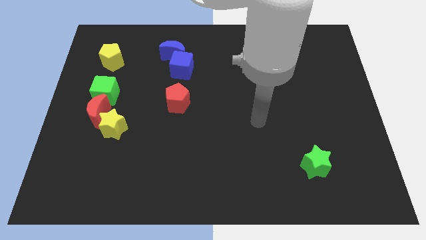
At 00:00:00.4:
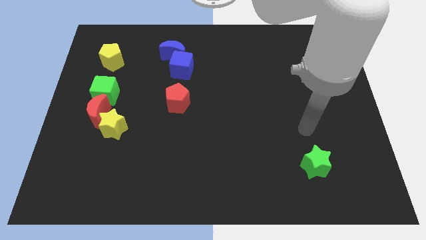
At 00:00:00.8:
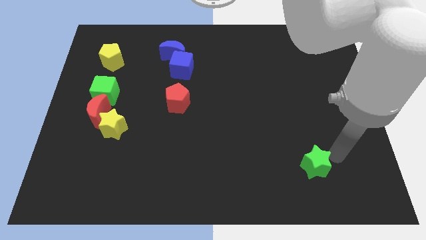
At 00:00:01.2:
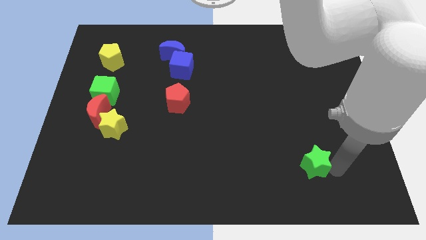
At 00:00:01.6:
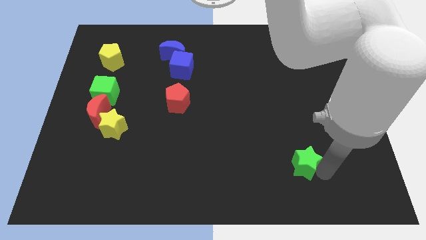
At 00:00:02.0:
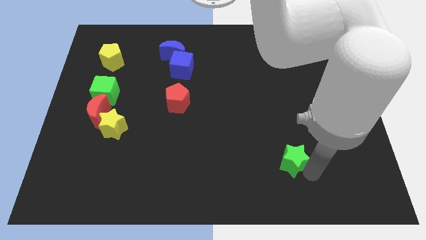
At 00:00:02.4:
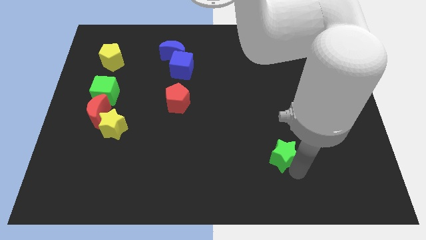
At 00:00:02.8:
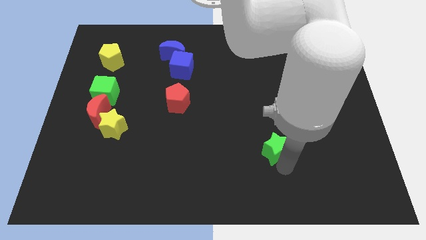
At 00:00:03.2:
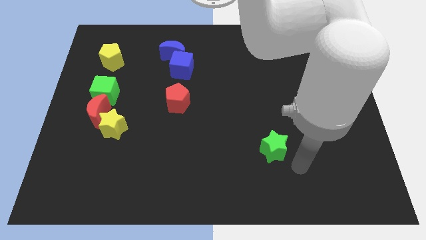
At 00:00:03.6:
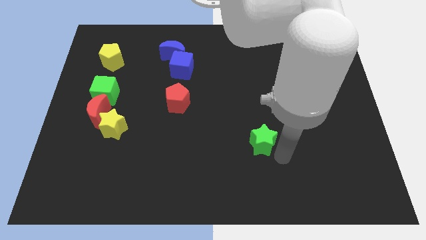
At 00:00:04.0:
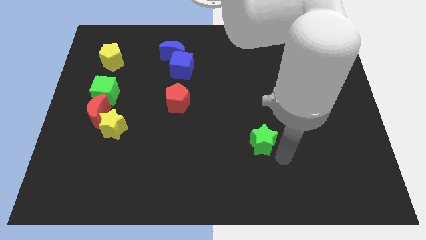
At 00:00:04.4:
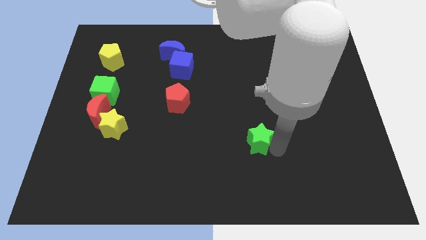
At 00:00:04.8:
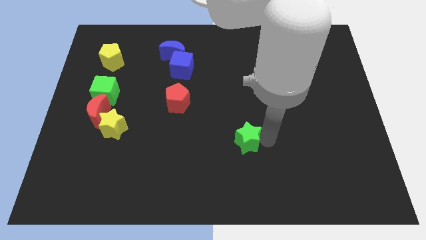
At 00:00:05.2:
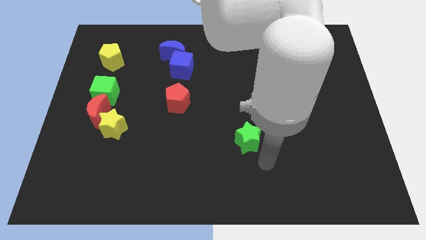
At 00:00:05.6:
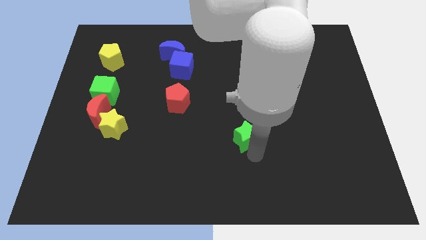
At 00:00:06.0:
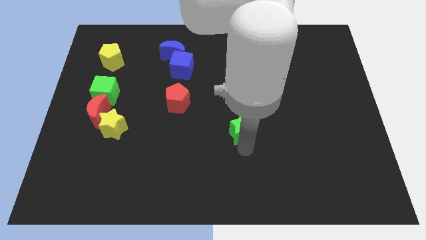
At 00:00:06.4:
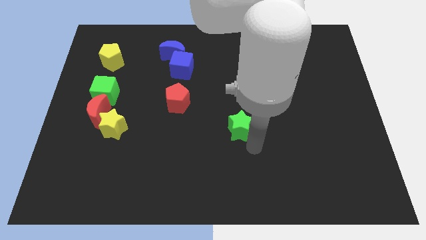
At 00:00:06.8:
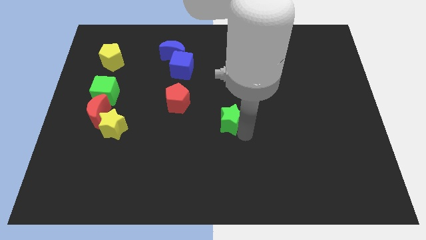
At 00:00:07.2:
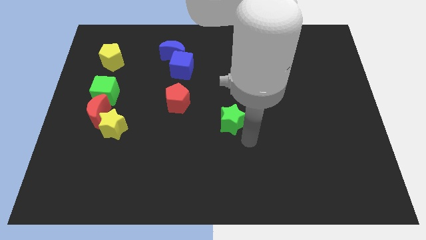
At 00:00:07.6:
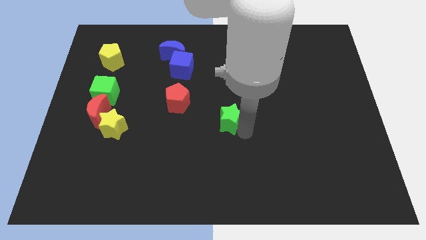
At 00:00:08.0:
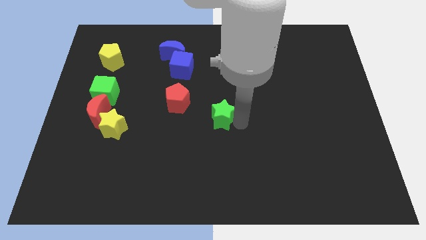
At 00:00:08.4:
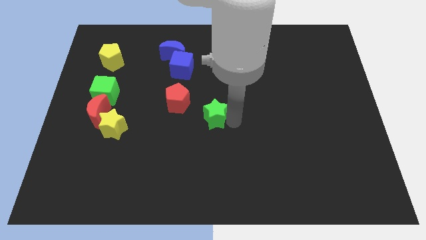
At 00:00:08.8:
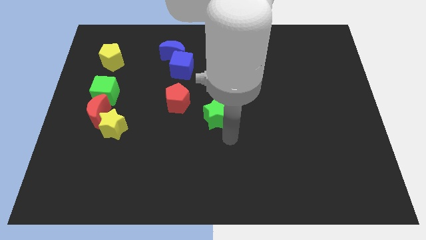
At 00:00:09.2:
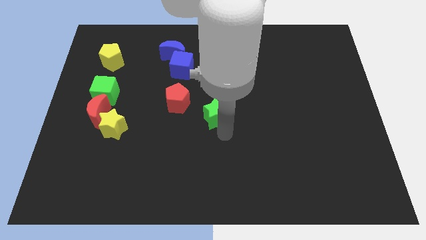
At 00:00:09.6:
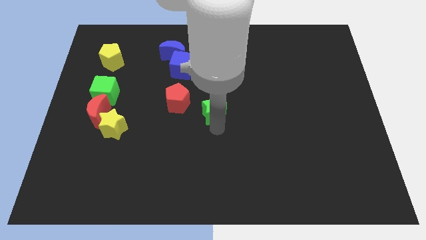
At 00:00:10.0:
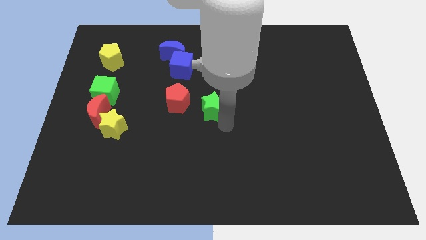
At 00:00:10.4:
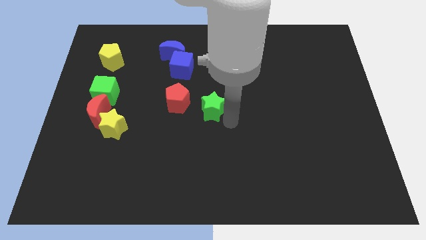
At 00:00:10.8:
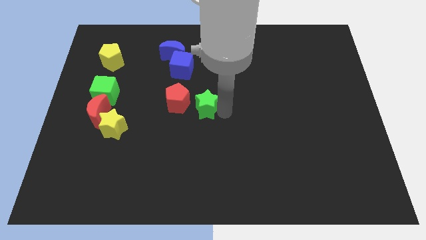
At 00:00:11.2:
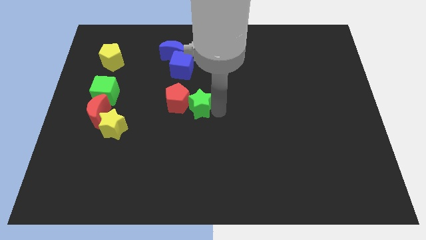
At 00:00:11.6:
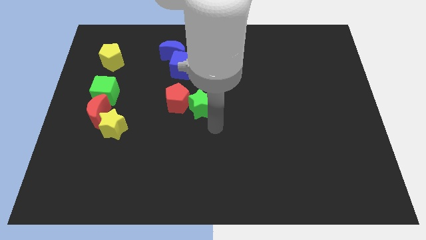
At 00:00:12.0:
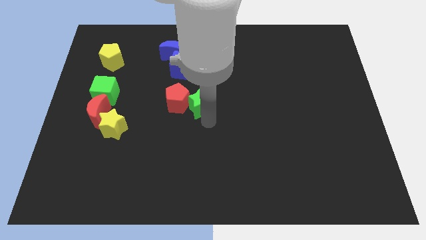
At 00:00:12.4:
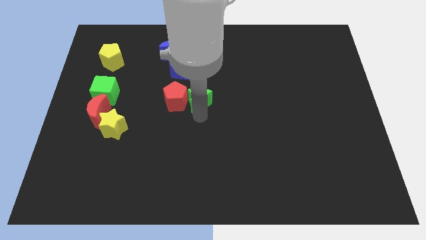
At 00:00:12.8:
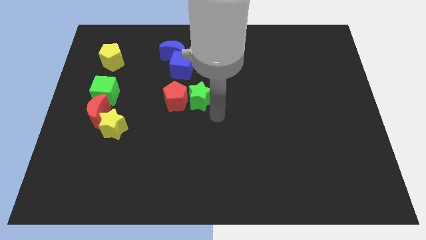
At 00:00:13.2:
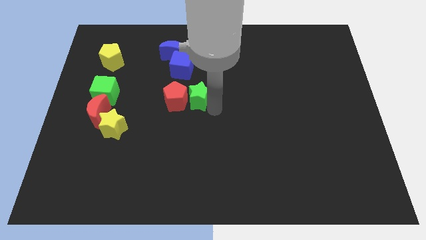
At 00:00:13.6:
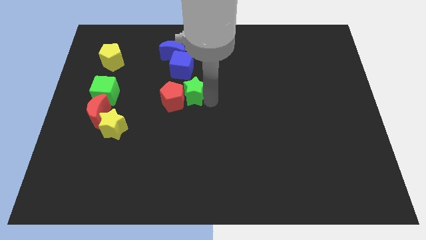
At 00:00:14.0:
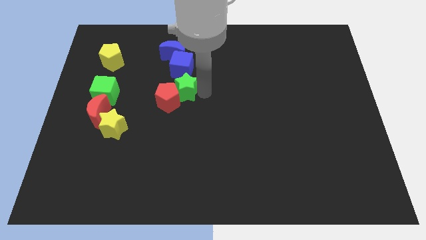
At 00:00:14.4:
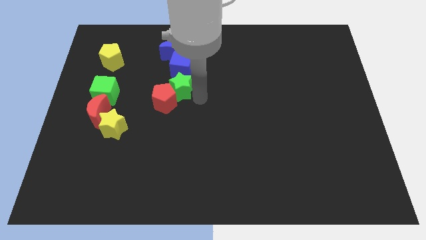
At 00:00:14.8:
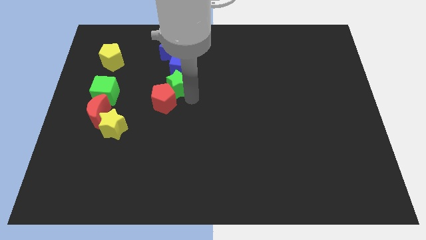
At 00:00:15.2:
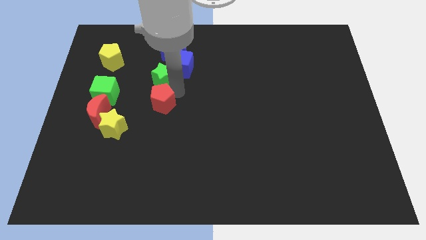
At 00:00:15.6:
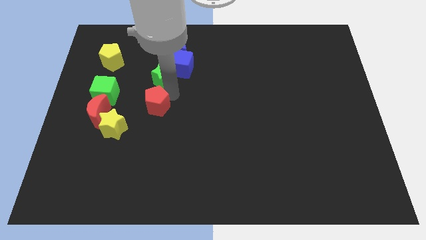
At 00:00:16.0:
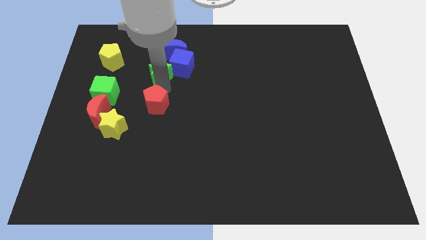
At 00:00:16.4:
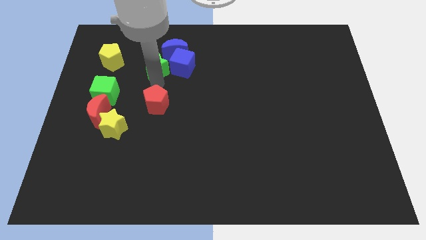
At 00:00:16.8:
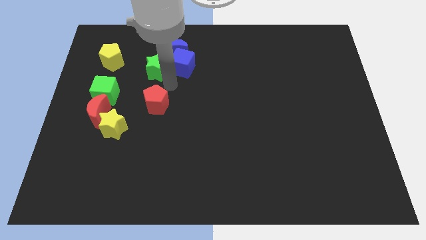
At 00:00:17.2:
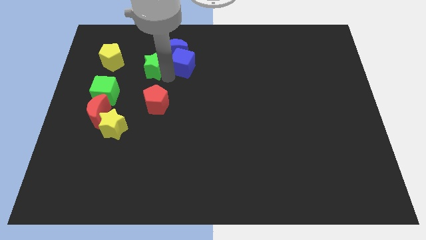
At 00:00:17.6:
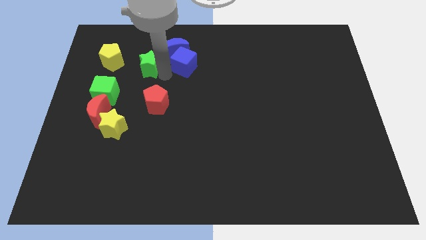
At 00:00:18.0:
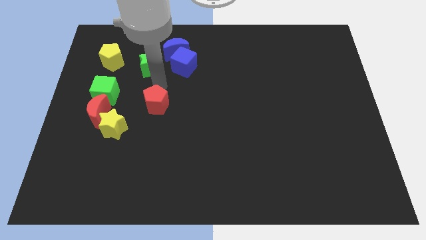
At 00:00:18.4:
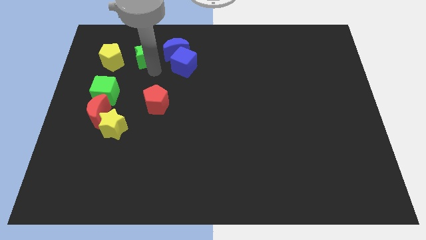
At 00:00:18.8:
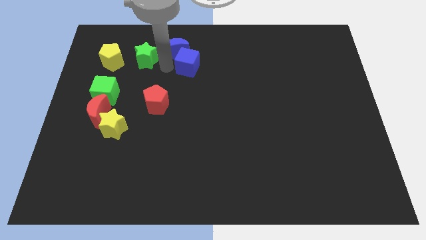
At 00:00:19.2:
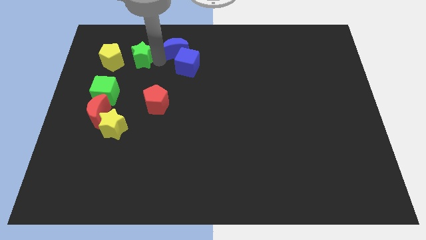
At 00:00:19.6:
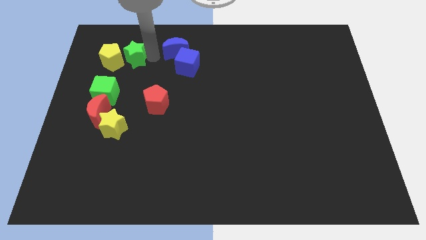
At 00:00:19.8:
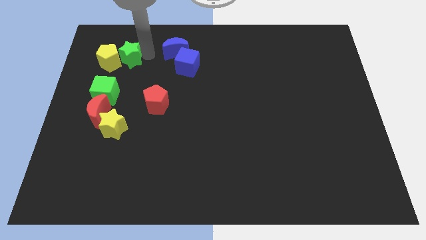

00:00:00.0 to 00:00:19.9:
put the green star to the top side of the green cube

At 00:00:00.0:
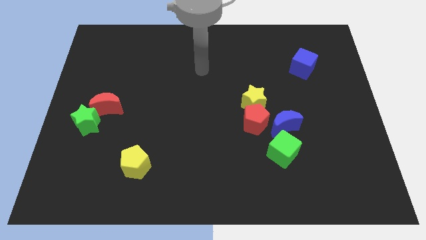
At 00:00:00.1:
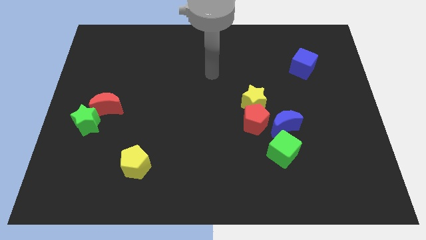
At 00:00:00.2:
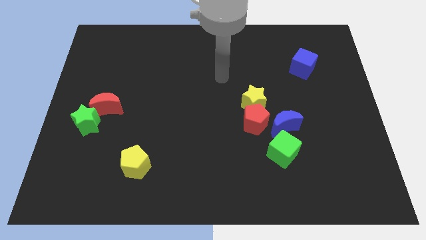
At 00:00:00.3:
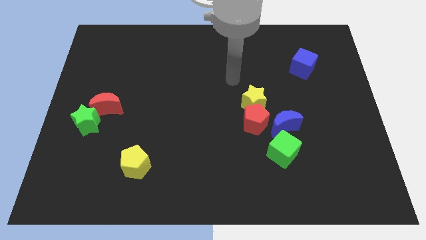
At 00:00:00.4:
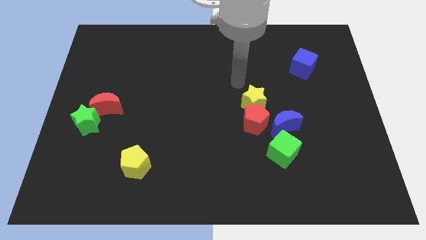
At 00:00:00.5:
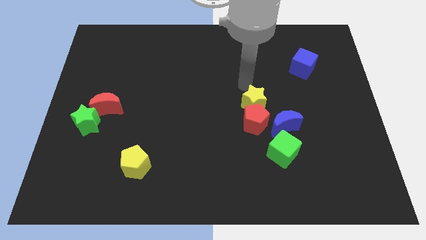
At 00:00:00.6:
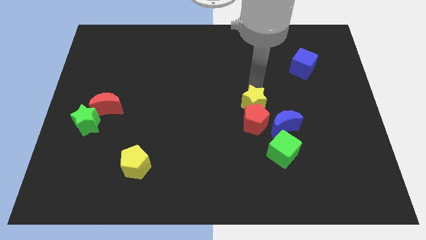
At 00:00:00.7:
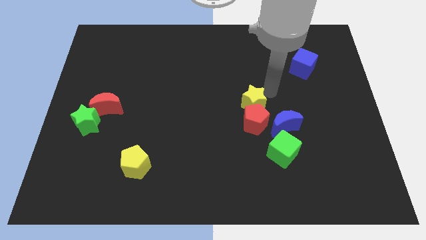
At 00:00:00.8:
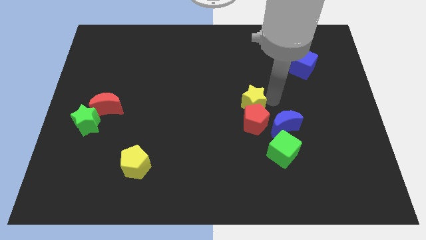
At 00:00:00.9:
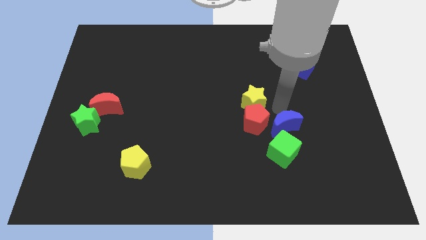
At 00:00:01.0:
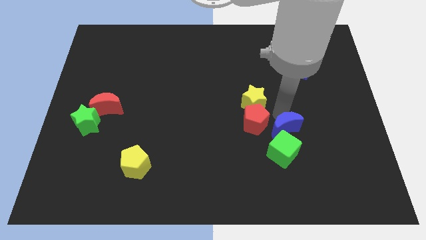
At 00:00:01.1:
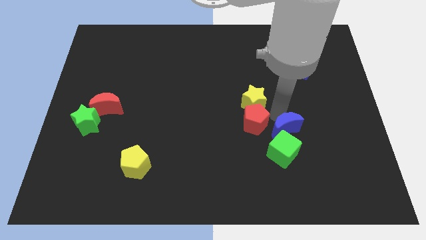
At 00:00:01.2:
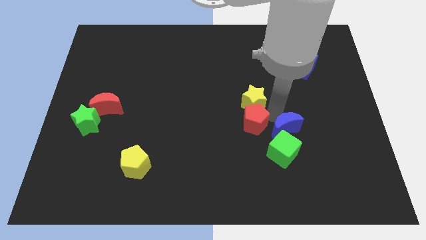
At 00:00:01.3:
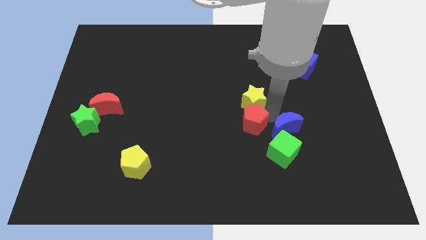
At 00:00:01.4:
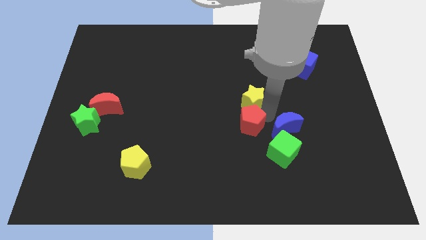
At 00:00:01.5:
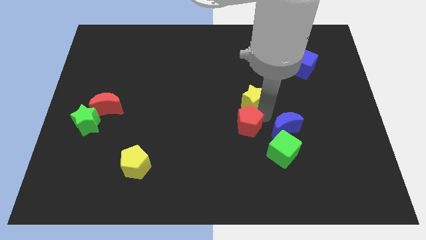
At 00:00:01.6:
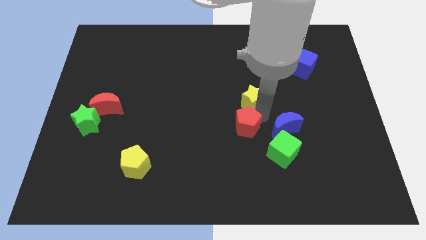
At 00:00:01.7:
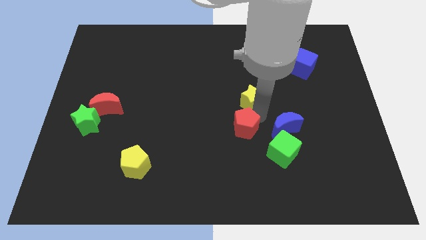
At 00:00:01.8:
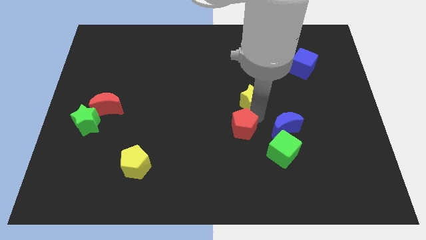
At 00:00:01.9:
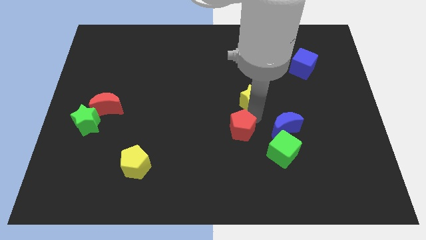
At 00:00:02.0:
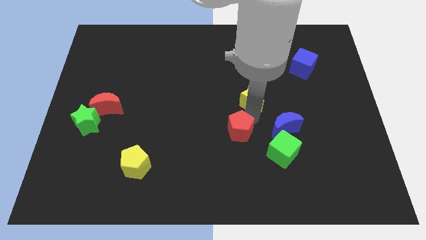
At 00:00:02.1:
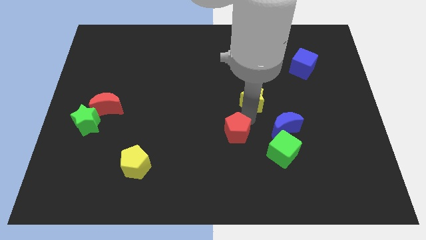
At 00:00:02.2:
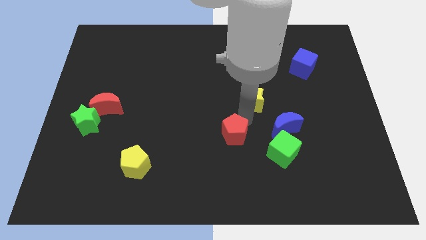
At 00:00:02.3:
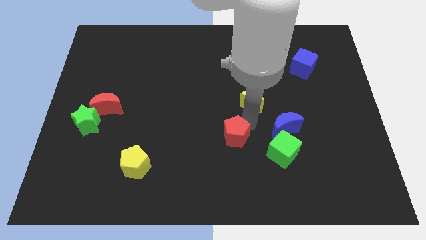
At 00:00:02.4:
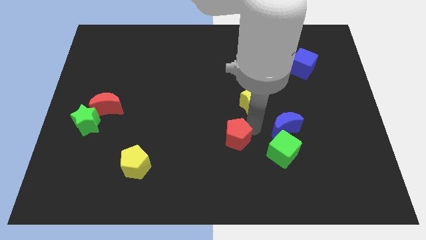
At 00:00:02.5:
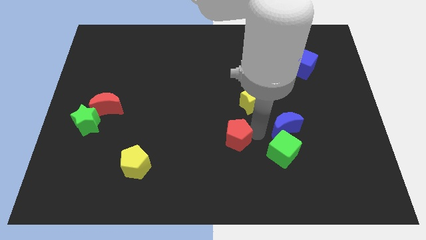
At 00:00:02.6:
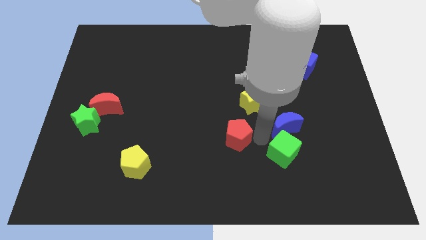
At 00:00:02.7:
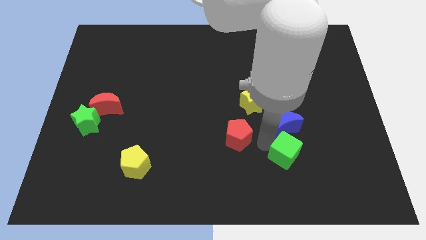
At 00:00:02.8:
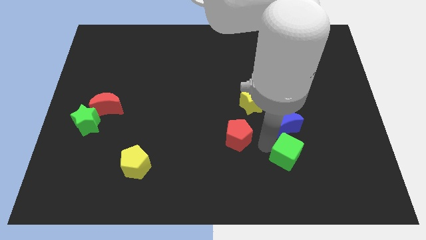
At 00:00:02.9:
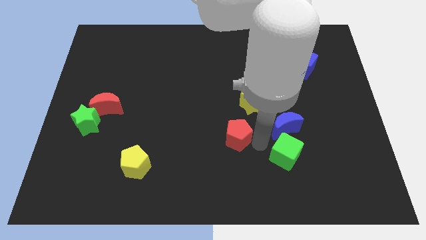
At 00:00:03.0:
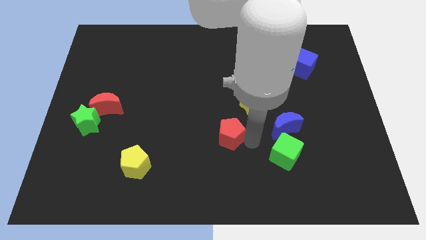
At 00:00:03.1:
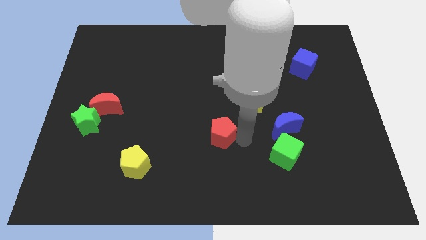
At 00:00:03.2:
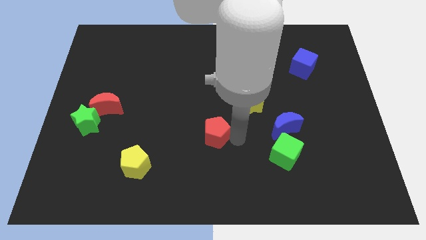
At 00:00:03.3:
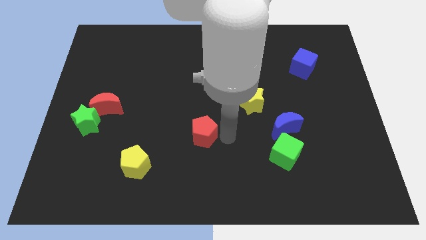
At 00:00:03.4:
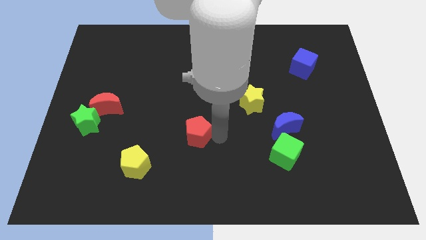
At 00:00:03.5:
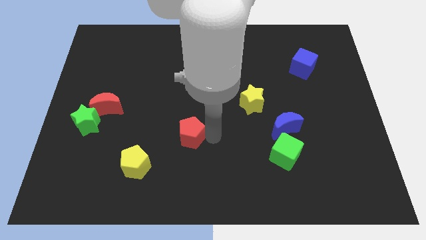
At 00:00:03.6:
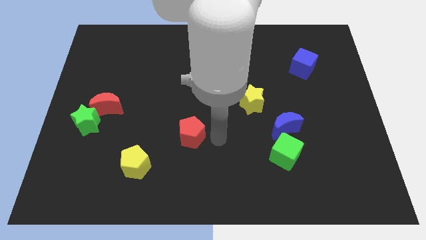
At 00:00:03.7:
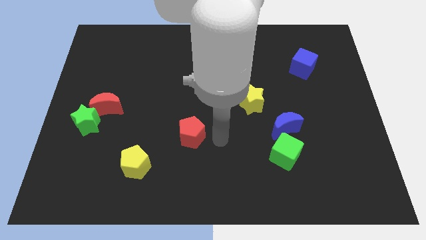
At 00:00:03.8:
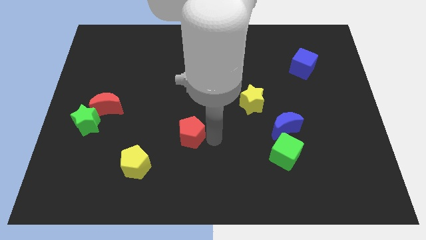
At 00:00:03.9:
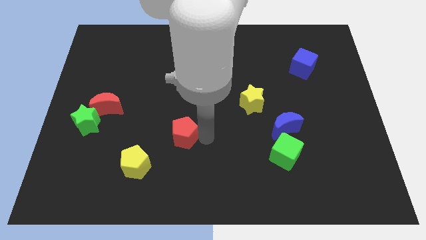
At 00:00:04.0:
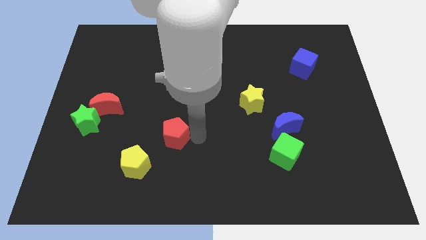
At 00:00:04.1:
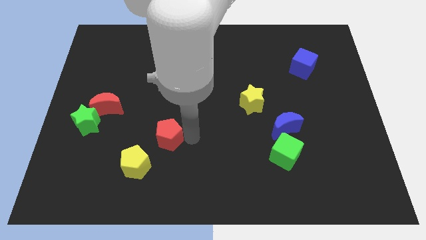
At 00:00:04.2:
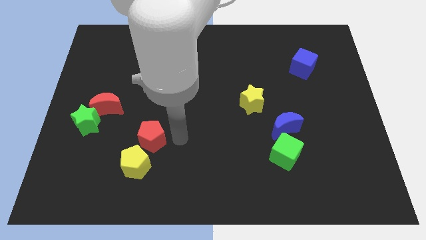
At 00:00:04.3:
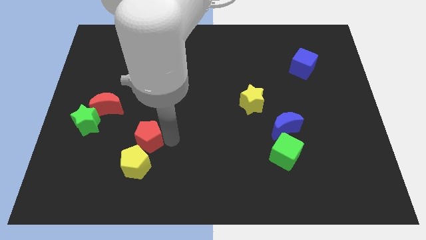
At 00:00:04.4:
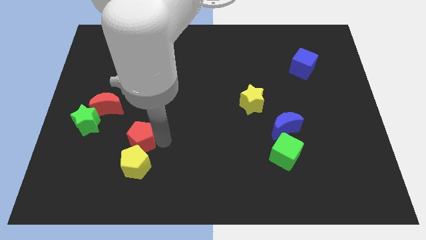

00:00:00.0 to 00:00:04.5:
push the red pentagon to the bottom right side of the red moon
